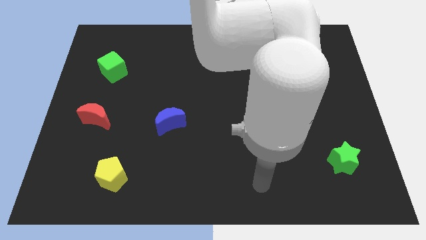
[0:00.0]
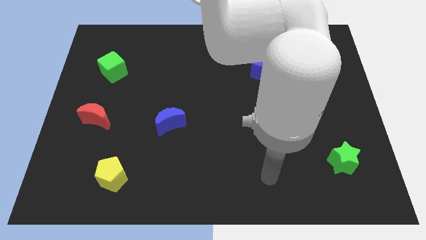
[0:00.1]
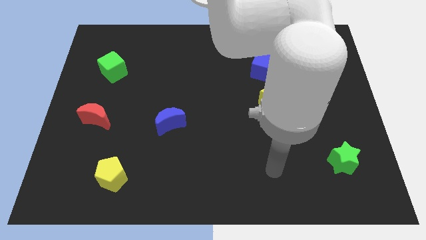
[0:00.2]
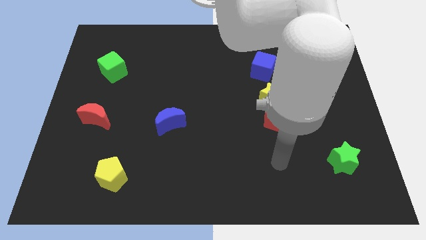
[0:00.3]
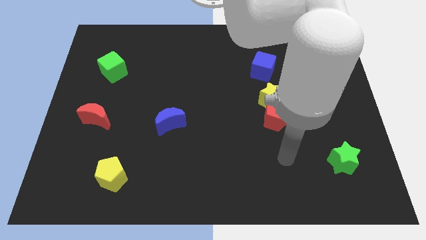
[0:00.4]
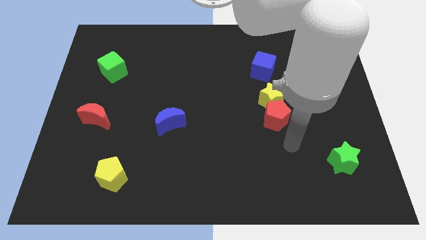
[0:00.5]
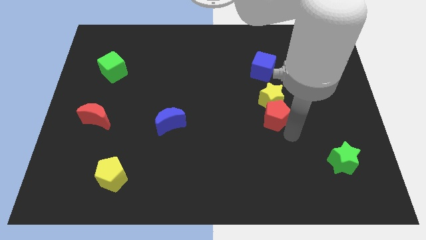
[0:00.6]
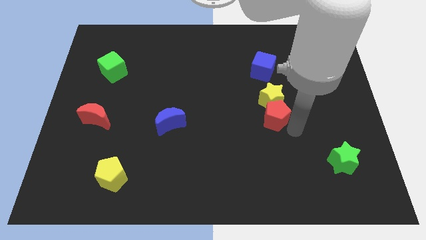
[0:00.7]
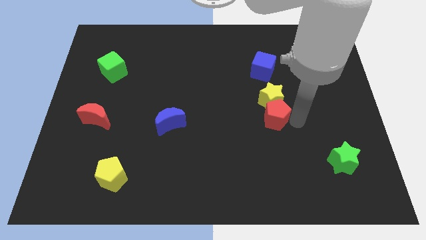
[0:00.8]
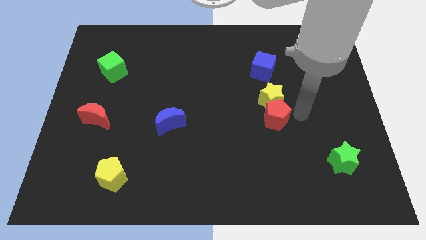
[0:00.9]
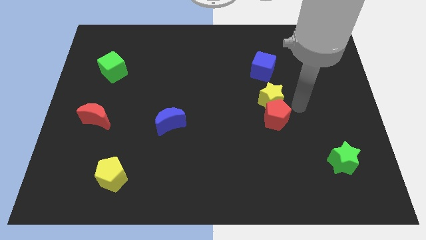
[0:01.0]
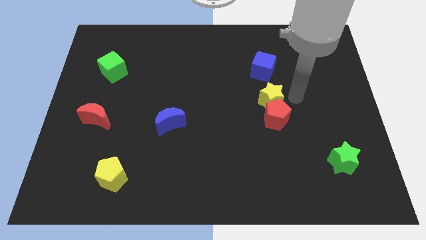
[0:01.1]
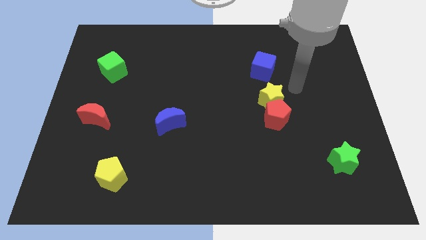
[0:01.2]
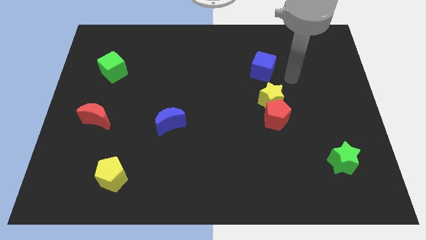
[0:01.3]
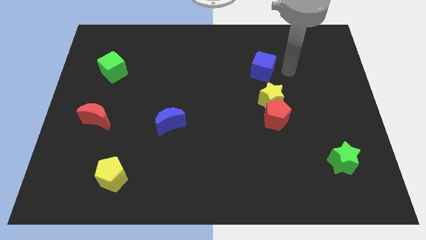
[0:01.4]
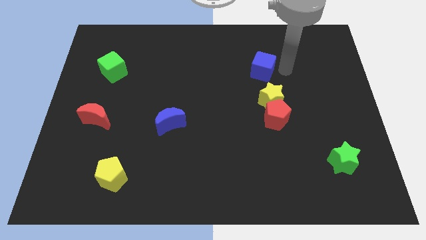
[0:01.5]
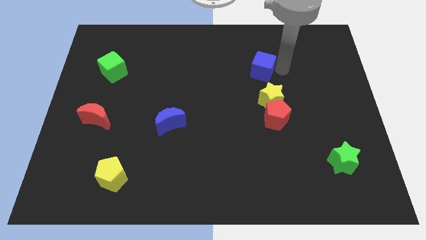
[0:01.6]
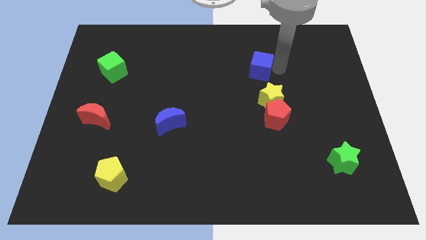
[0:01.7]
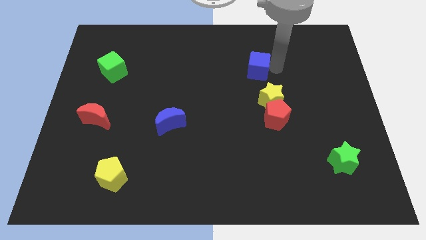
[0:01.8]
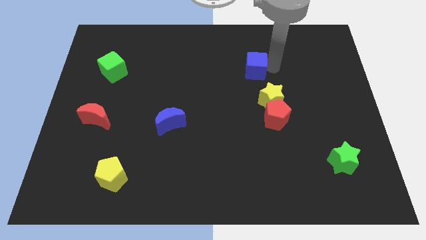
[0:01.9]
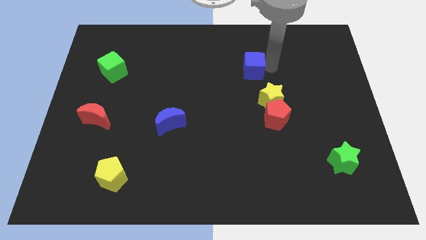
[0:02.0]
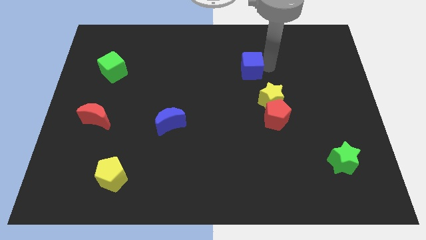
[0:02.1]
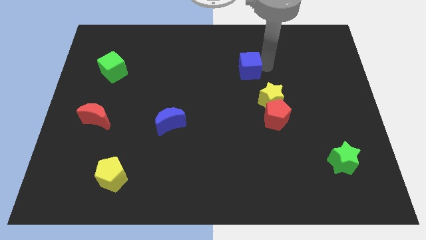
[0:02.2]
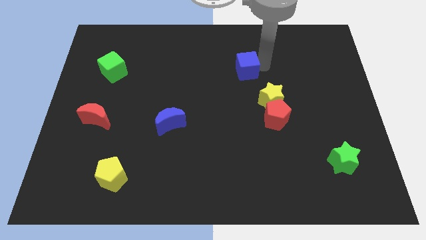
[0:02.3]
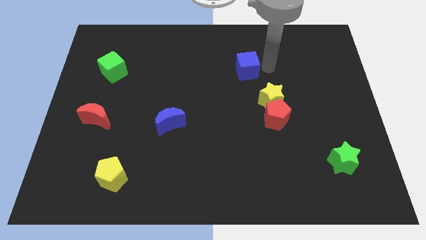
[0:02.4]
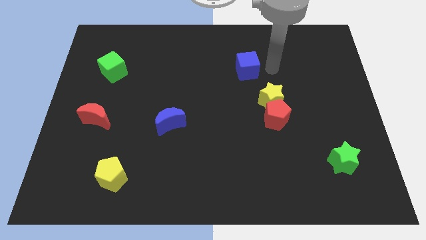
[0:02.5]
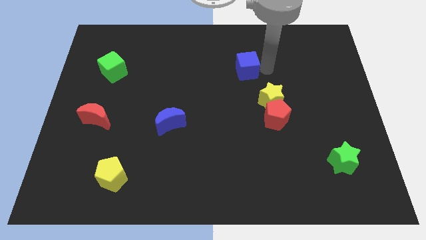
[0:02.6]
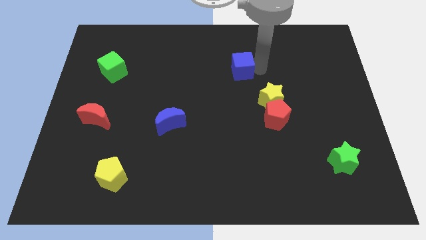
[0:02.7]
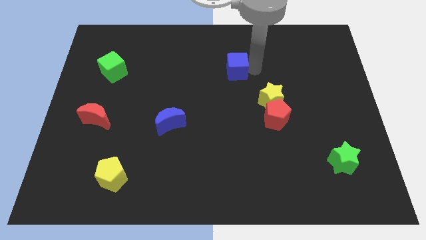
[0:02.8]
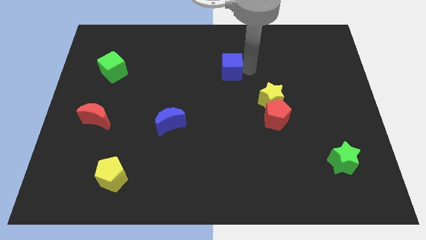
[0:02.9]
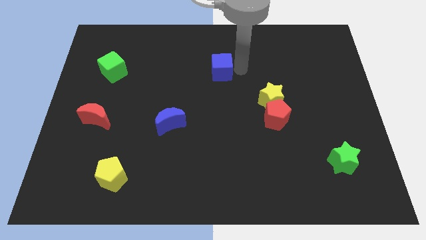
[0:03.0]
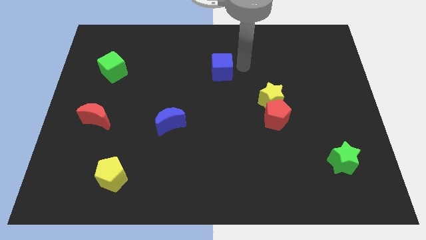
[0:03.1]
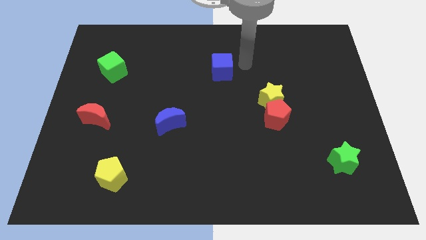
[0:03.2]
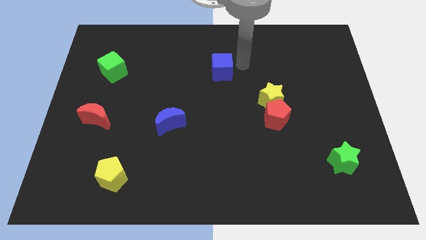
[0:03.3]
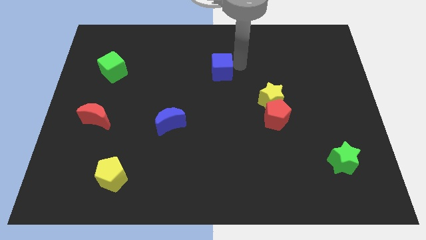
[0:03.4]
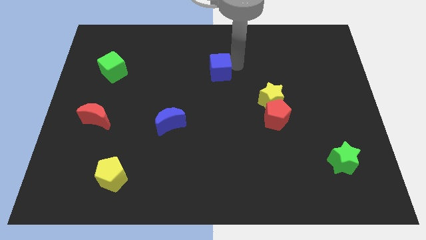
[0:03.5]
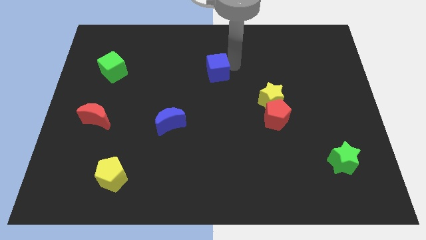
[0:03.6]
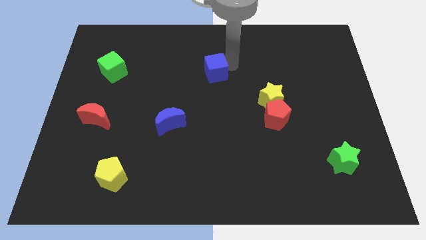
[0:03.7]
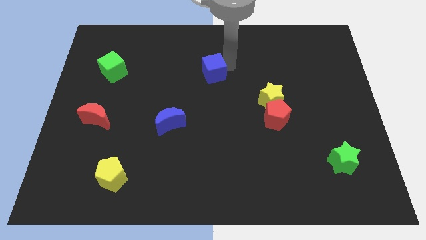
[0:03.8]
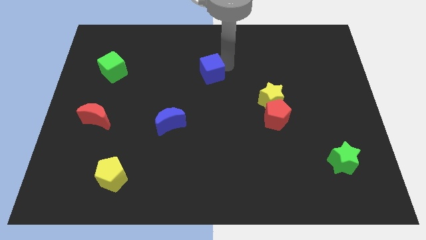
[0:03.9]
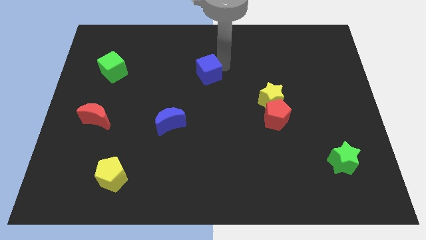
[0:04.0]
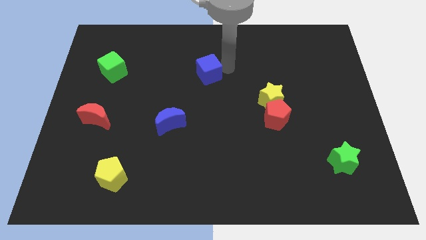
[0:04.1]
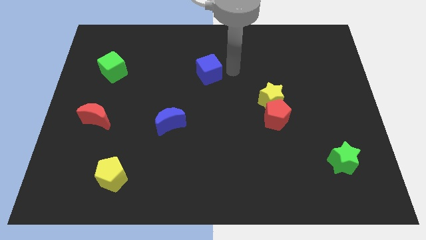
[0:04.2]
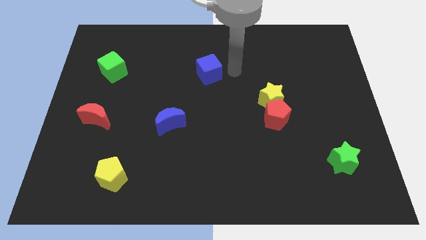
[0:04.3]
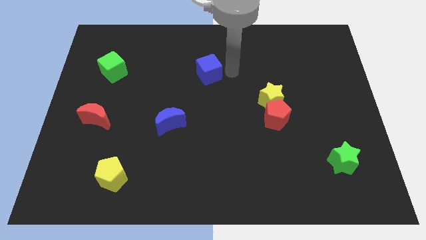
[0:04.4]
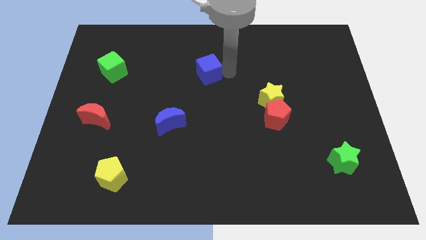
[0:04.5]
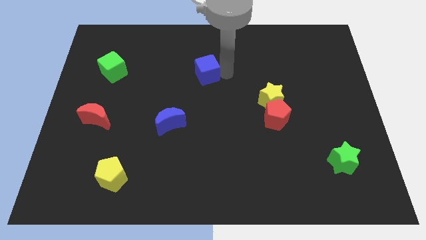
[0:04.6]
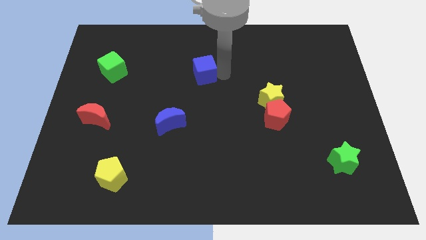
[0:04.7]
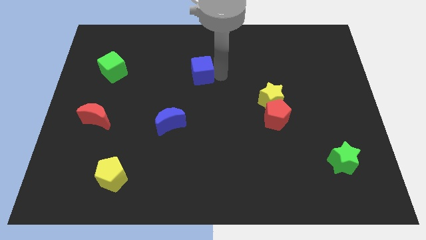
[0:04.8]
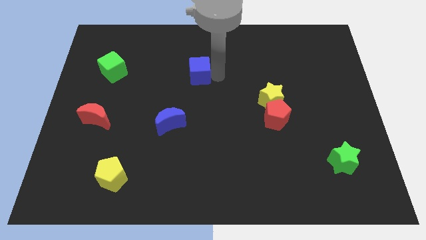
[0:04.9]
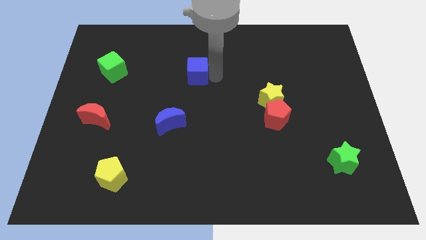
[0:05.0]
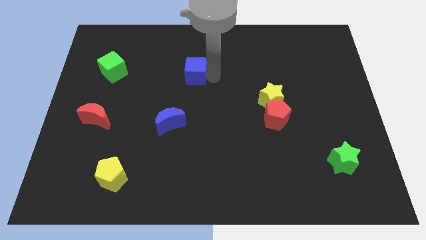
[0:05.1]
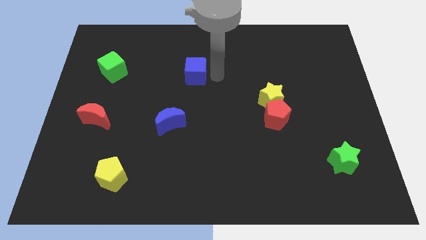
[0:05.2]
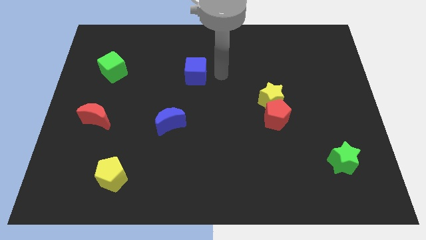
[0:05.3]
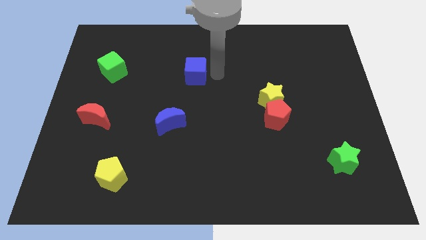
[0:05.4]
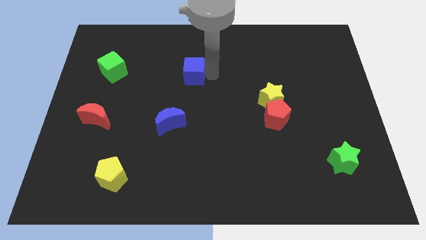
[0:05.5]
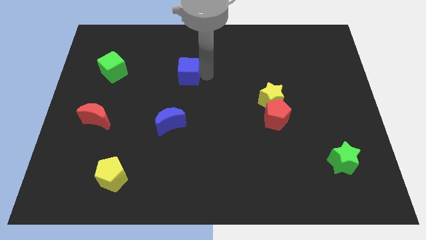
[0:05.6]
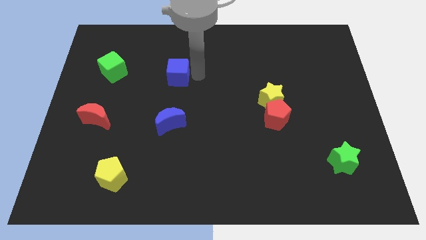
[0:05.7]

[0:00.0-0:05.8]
move the blue cube left

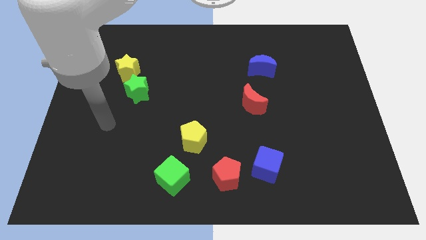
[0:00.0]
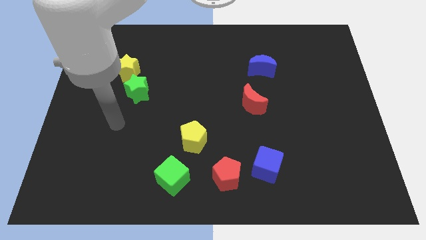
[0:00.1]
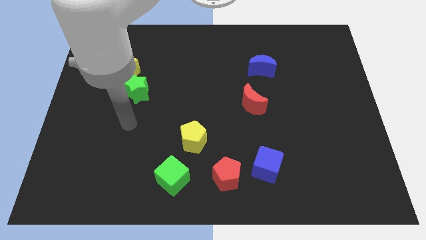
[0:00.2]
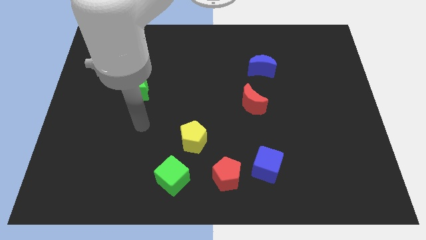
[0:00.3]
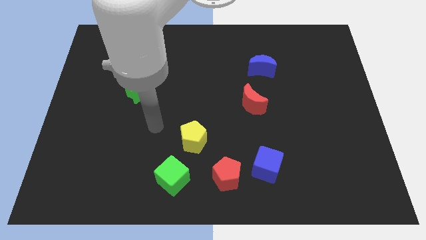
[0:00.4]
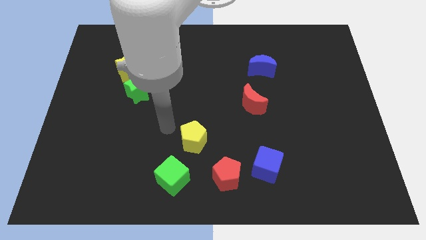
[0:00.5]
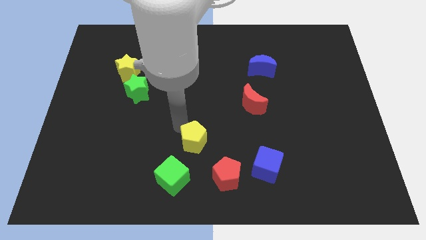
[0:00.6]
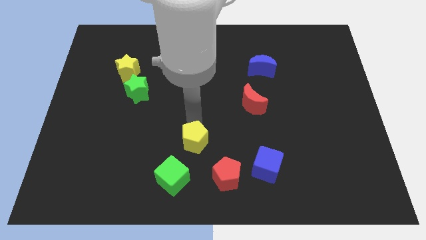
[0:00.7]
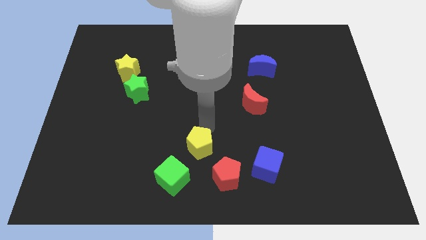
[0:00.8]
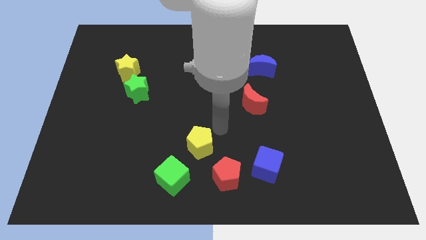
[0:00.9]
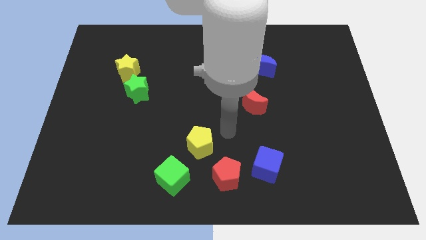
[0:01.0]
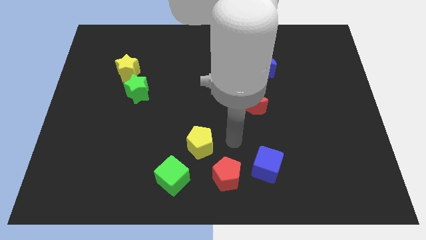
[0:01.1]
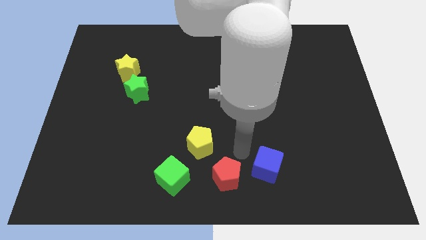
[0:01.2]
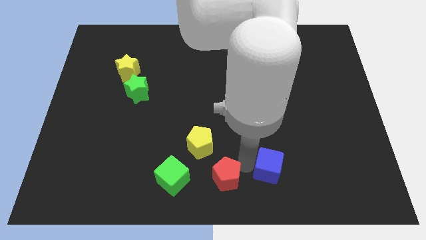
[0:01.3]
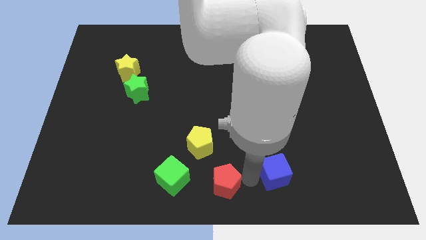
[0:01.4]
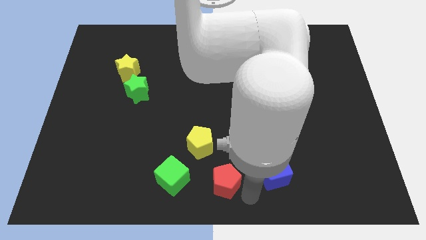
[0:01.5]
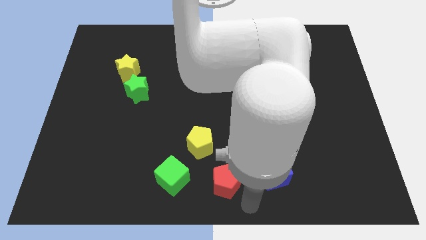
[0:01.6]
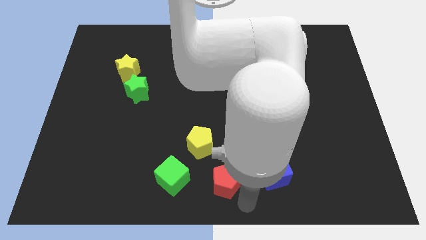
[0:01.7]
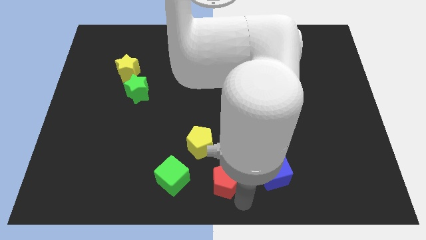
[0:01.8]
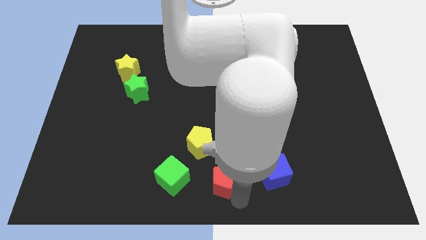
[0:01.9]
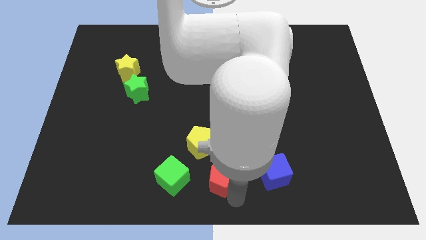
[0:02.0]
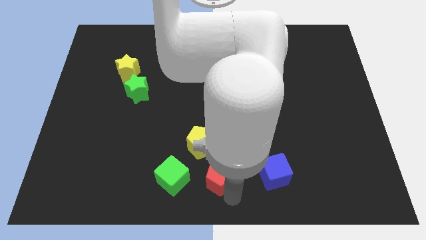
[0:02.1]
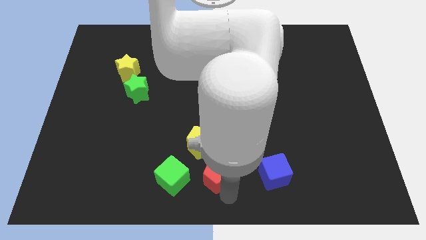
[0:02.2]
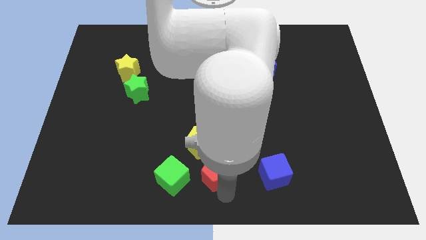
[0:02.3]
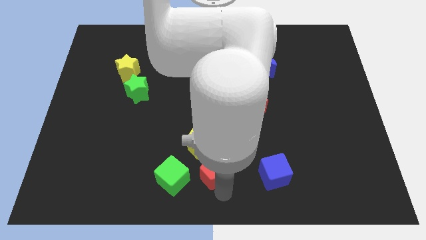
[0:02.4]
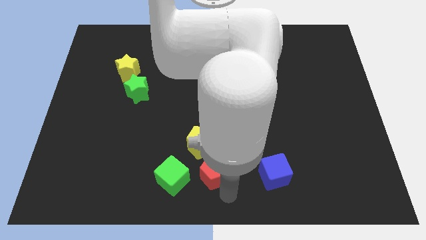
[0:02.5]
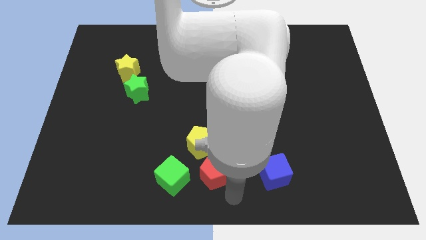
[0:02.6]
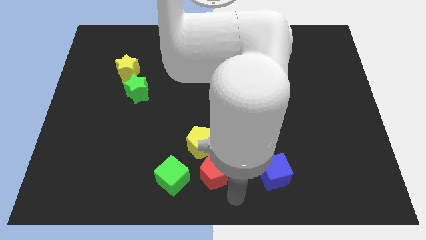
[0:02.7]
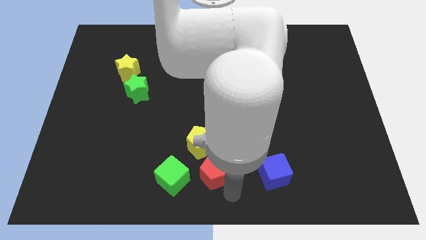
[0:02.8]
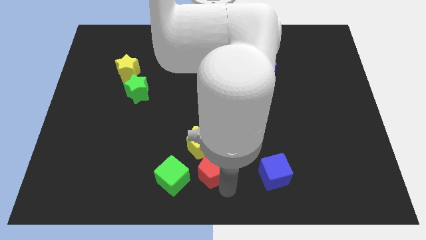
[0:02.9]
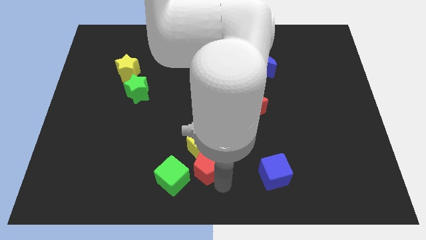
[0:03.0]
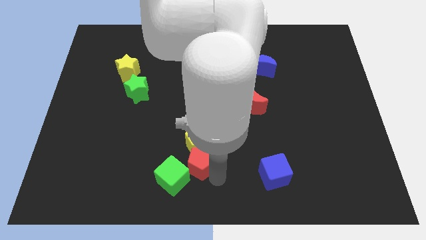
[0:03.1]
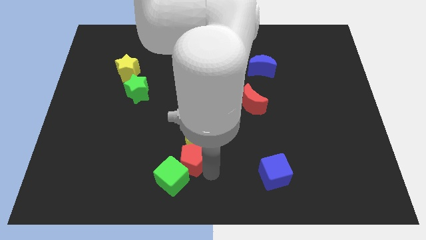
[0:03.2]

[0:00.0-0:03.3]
slide the red pentagon up and to the left diagonally a bit
